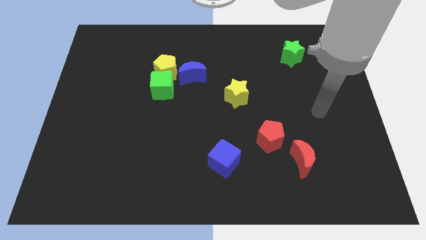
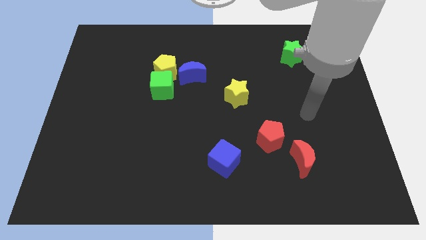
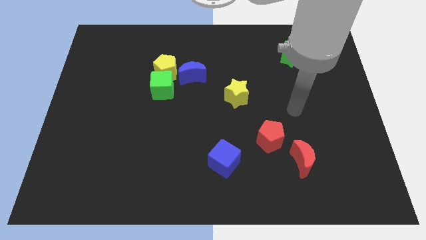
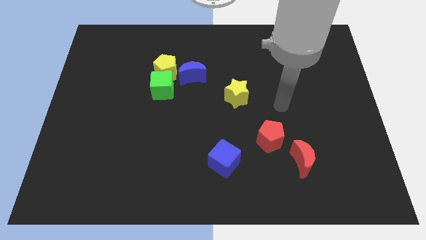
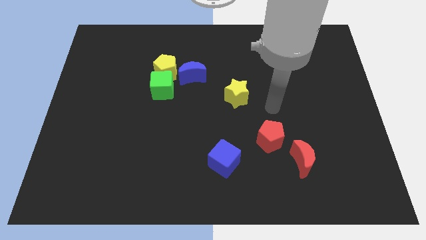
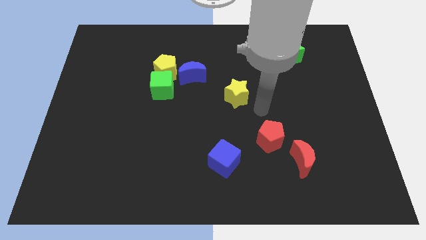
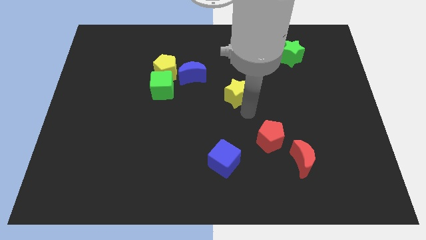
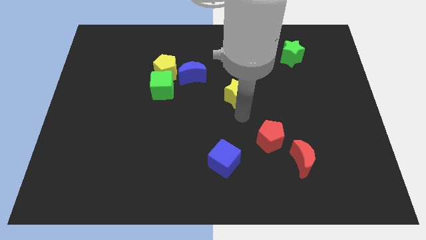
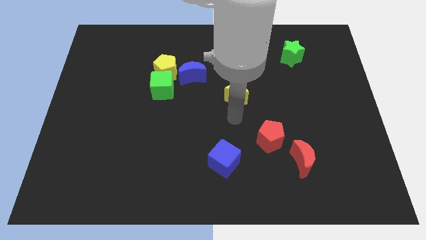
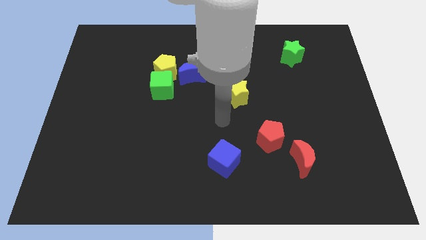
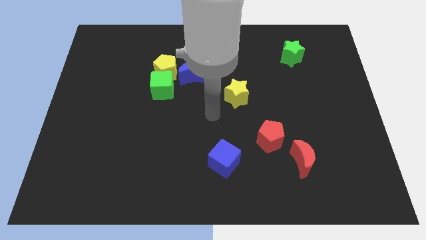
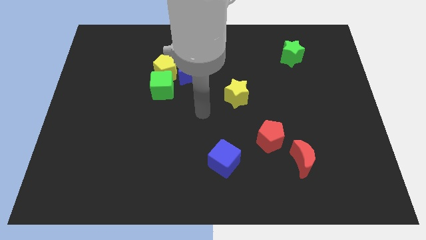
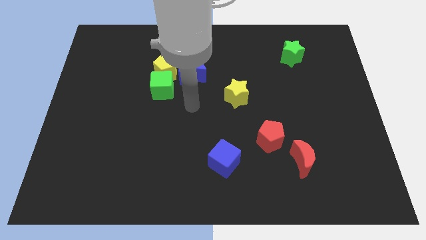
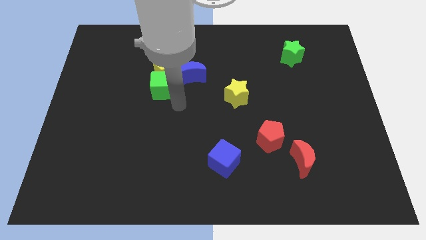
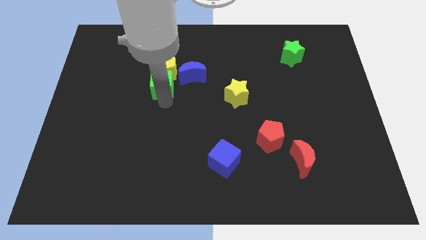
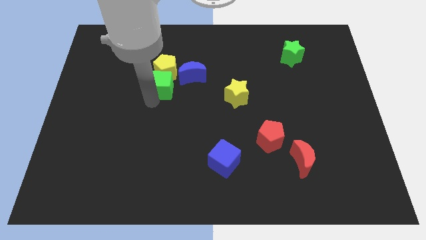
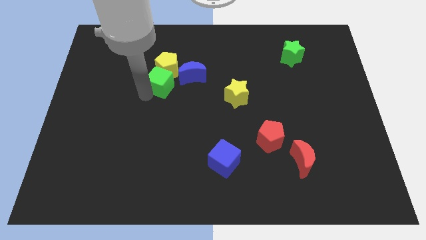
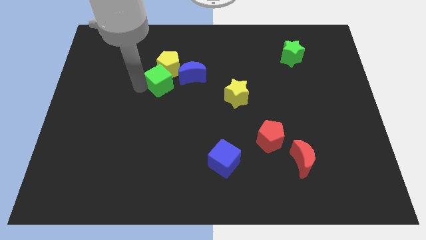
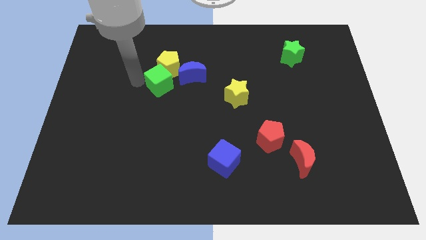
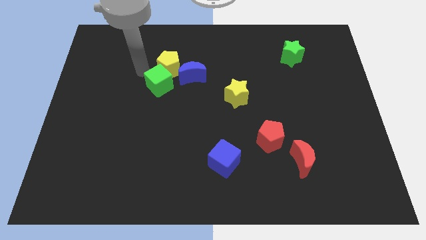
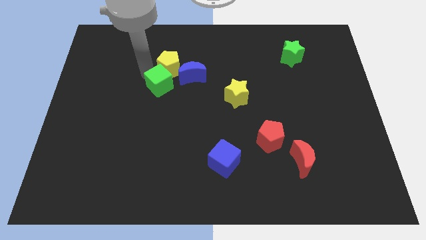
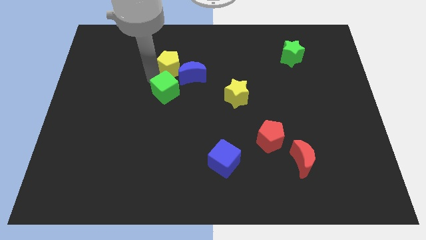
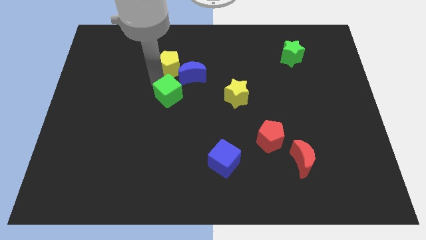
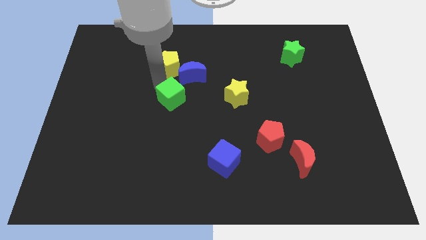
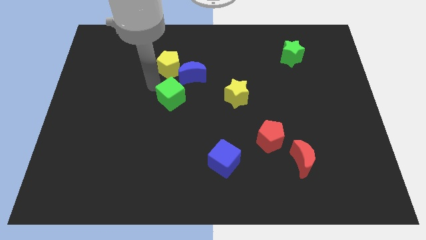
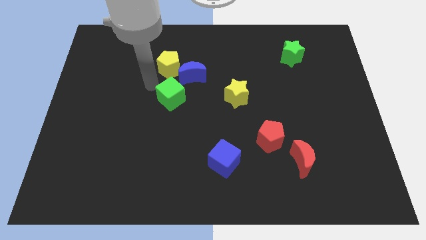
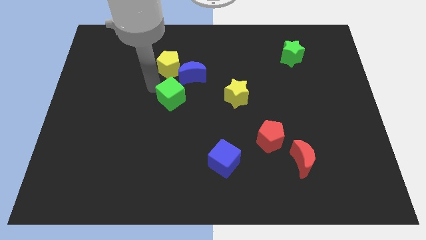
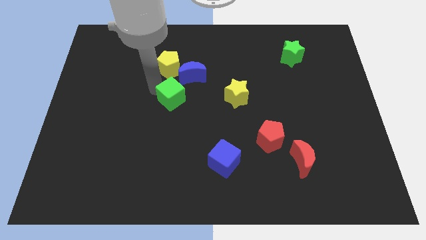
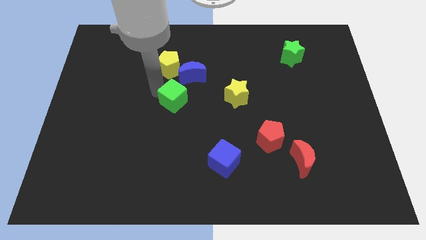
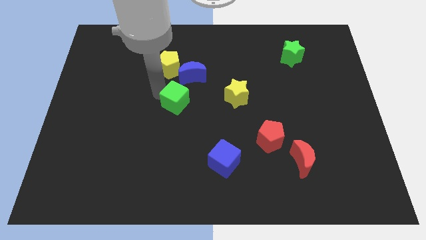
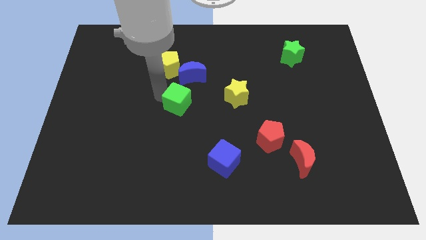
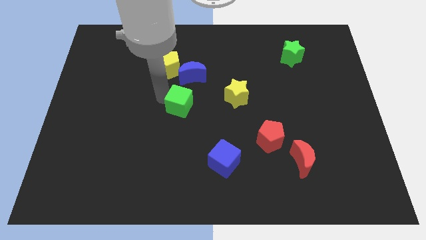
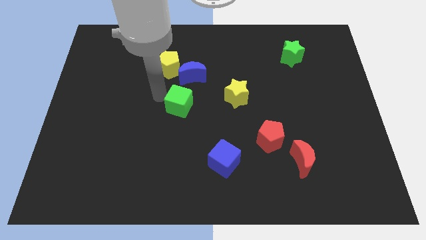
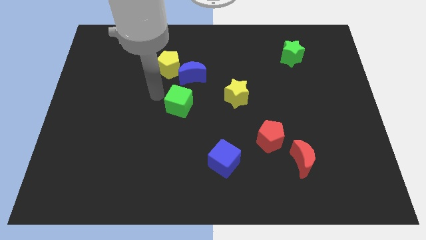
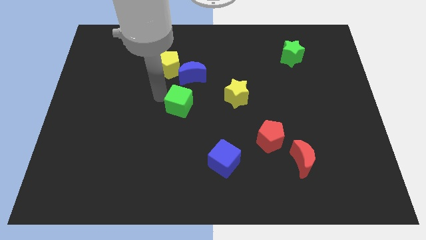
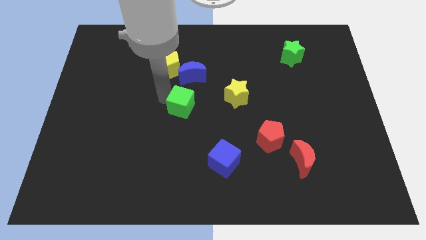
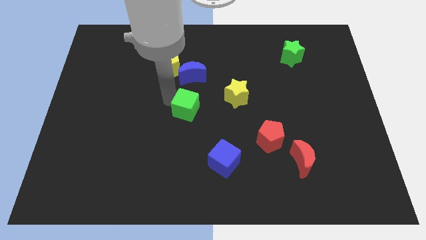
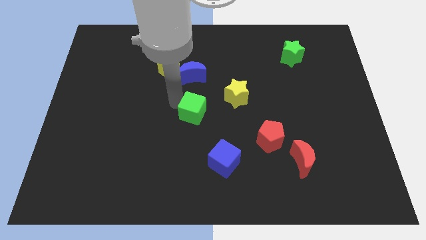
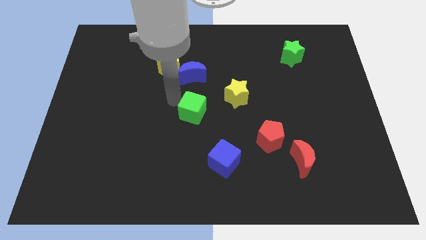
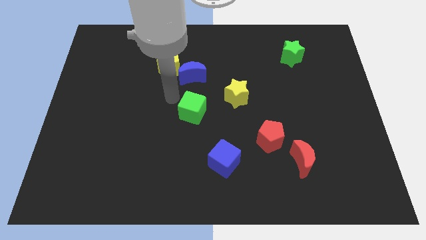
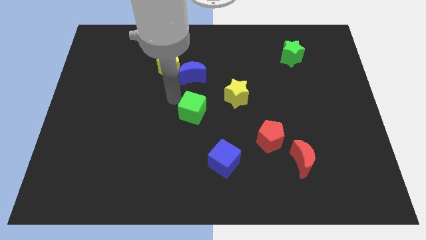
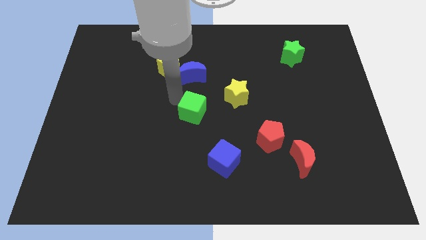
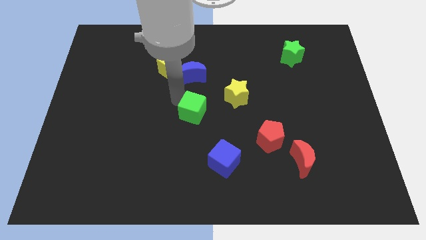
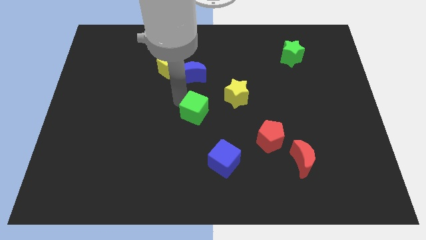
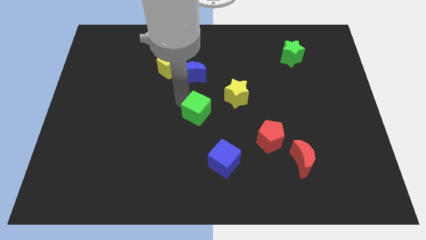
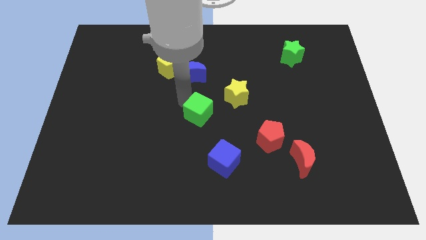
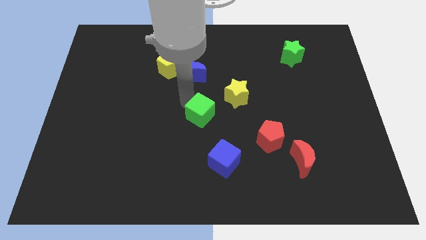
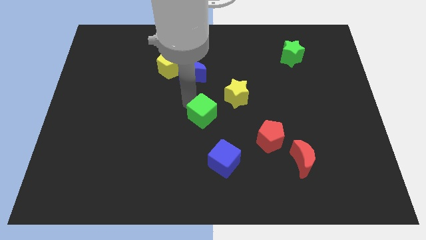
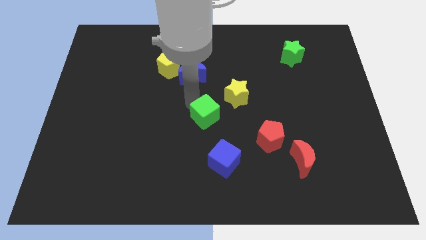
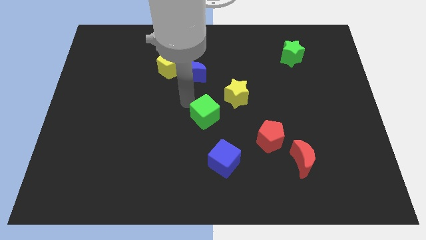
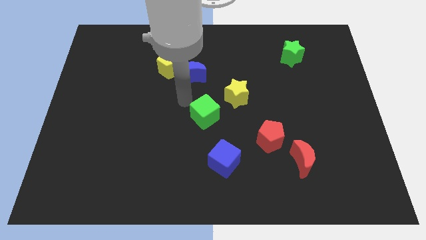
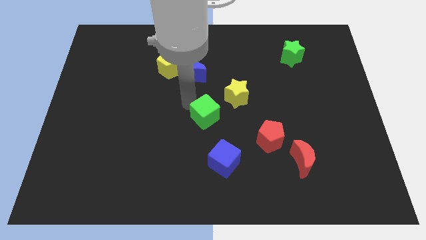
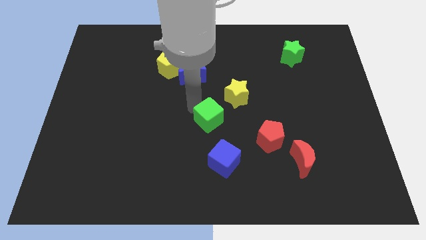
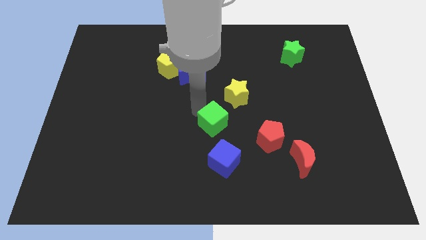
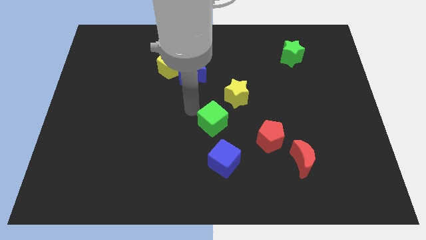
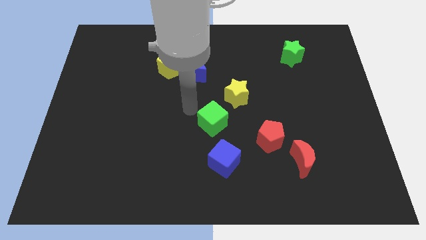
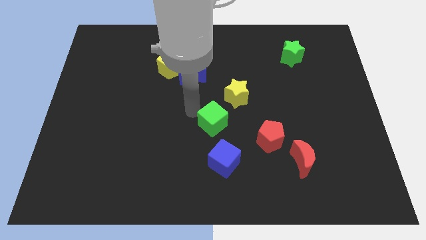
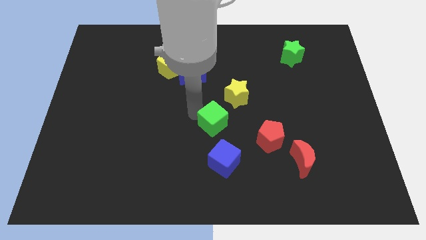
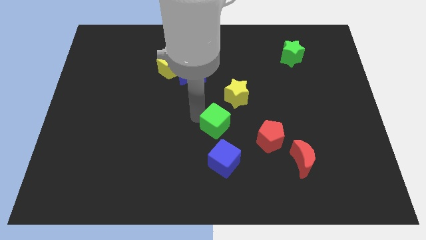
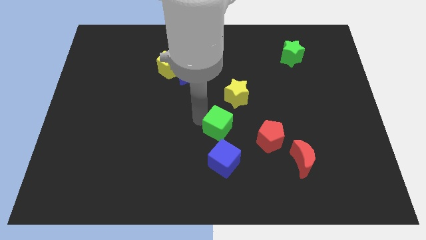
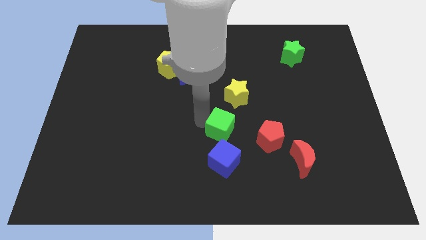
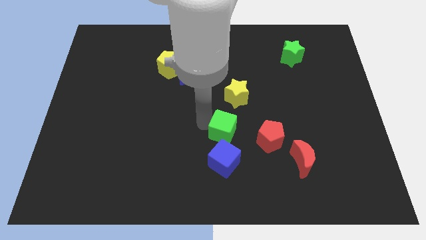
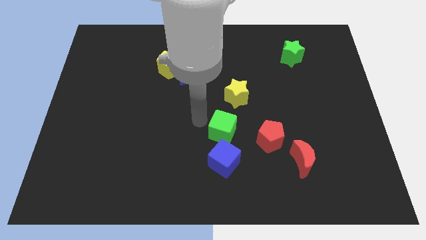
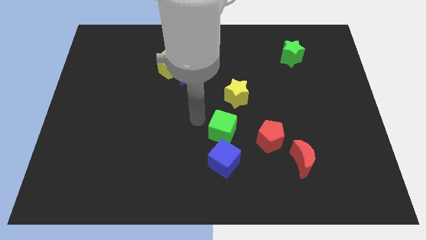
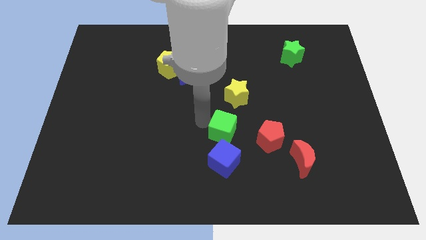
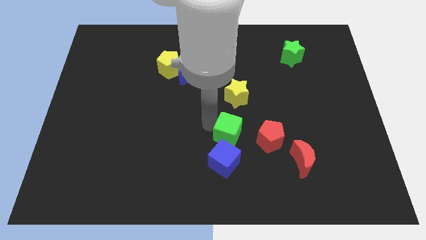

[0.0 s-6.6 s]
slide the green cube to the top right side of the blue cube

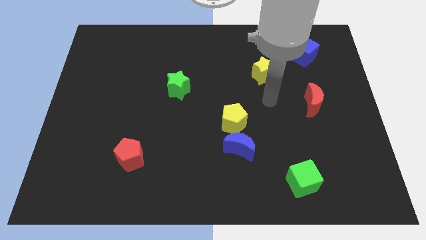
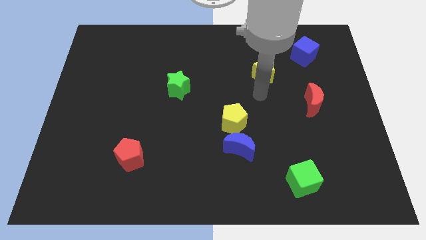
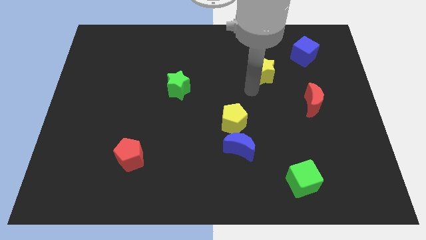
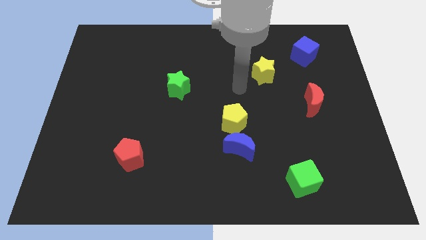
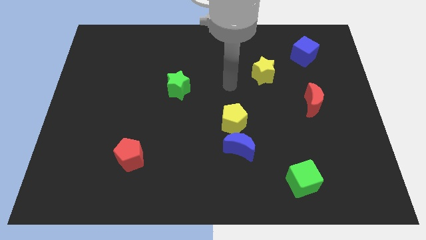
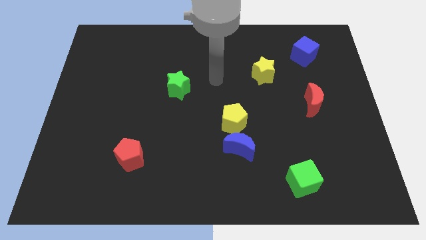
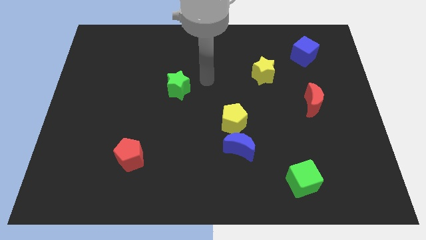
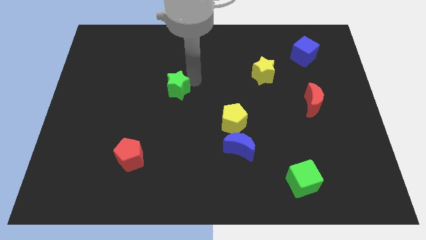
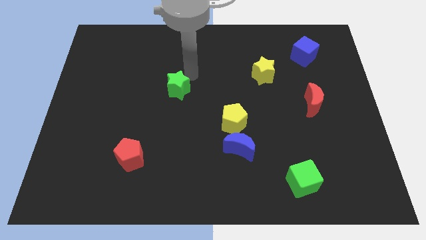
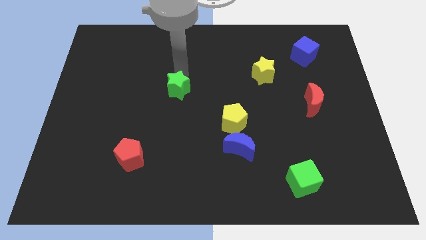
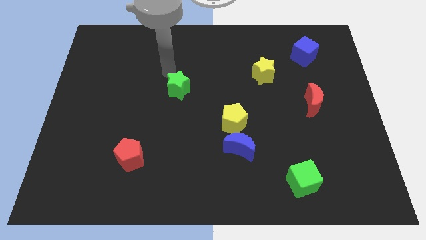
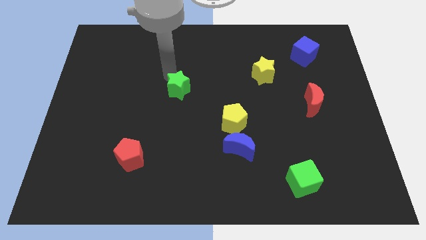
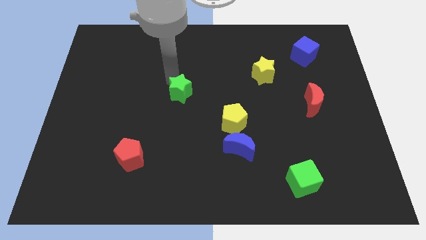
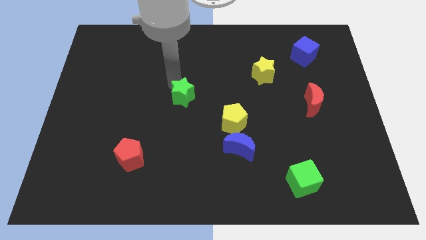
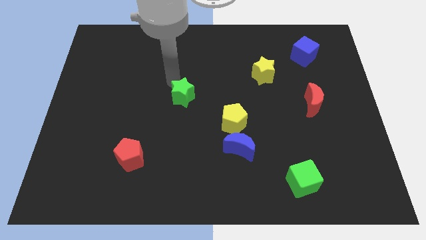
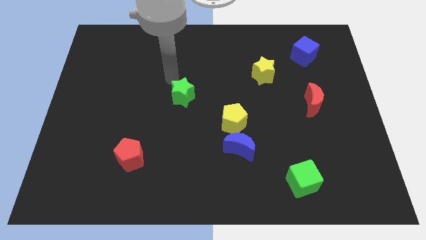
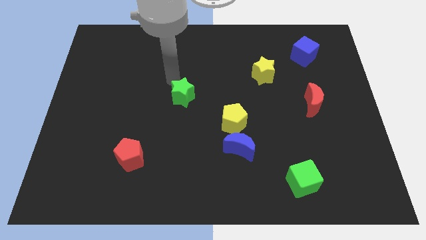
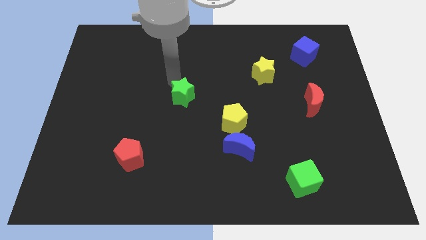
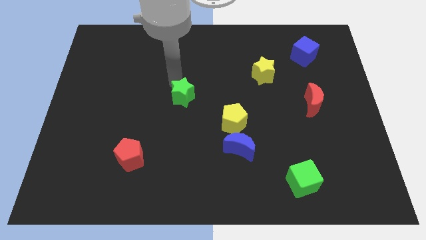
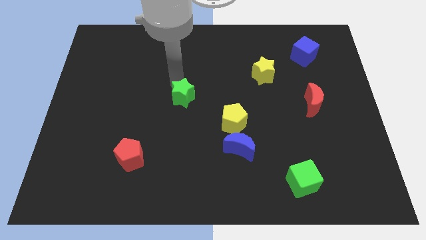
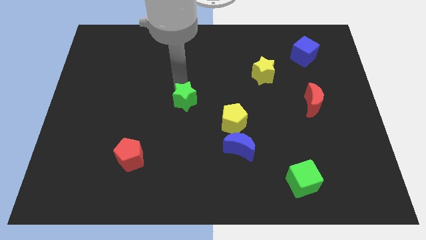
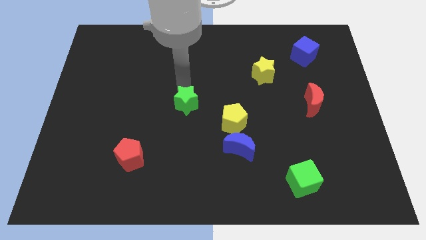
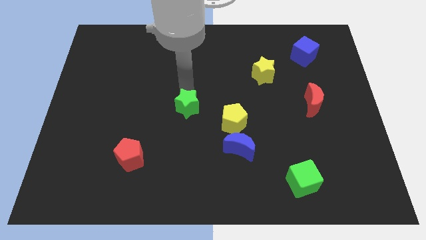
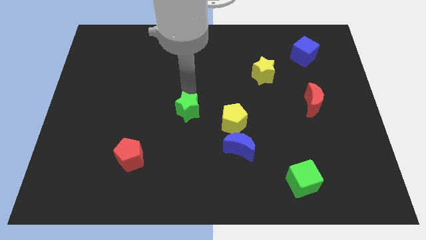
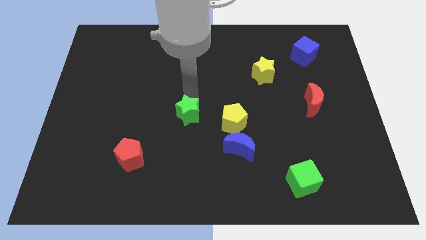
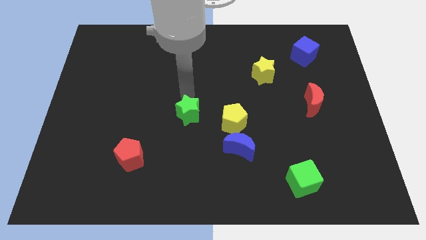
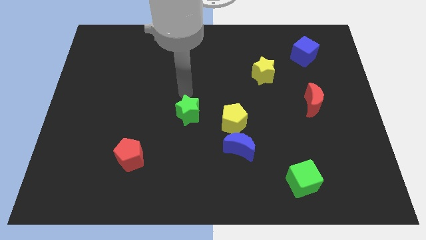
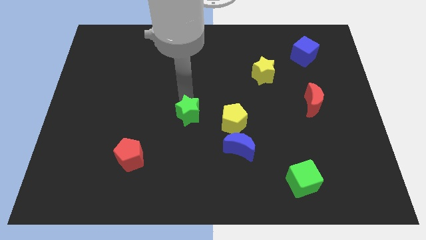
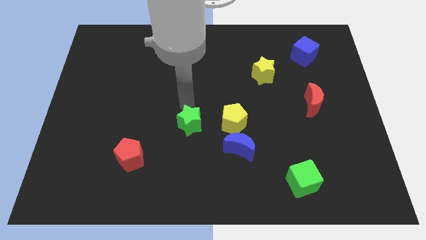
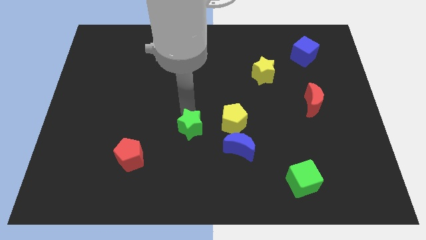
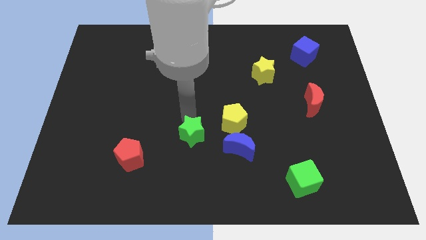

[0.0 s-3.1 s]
put the green star to the left of the blue moon
